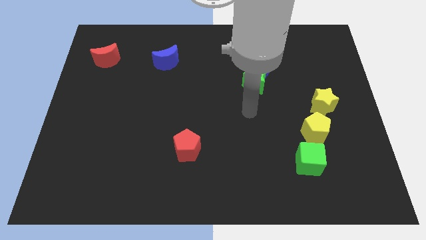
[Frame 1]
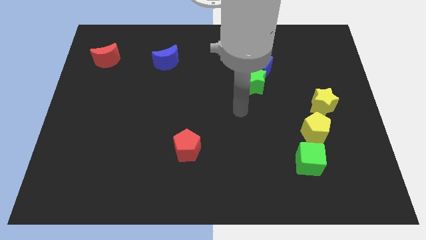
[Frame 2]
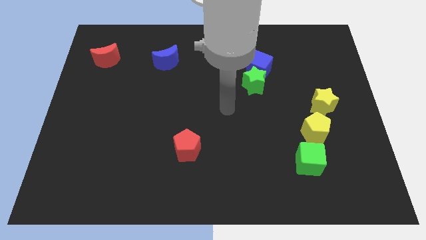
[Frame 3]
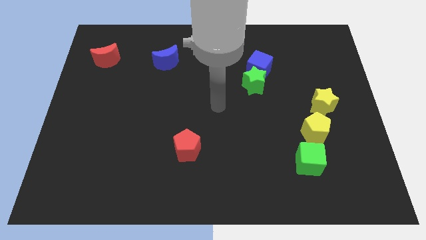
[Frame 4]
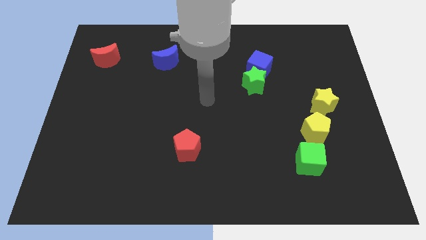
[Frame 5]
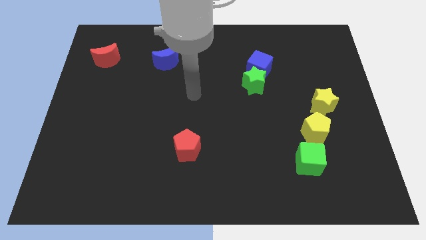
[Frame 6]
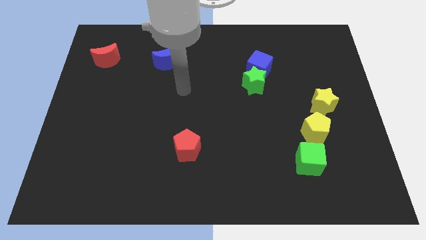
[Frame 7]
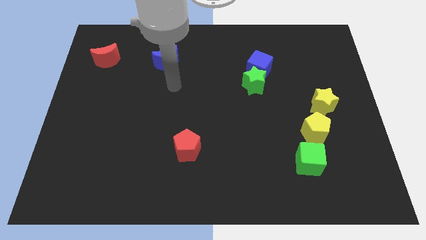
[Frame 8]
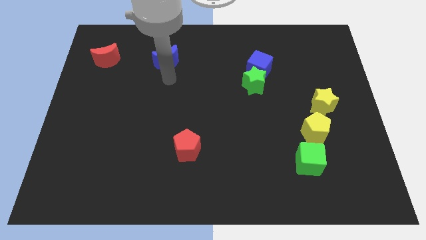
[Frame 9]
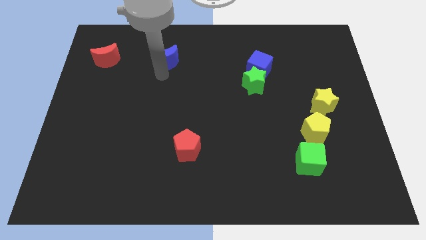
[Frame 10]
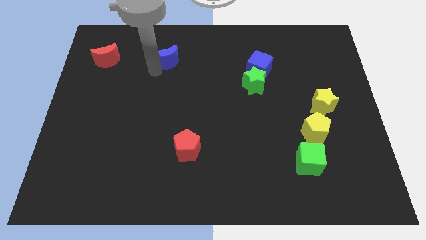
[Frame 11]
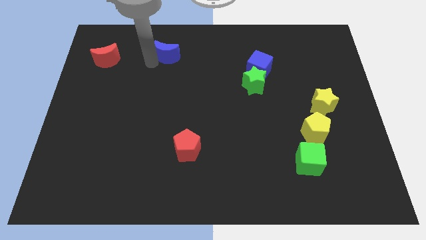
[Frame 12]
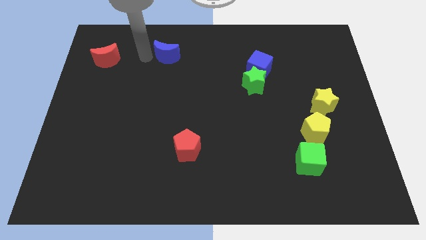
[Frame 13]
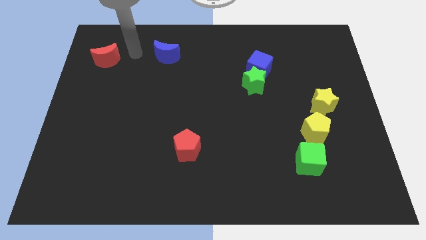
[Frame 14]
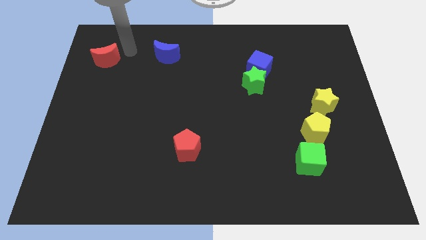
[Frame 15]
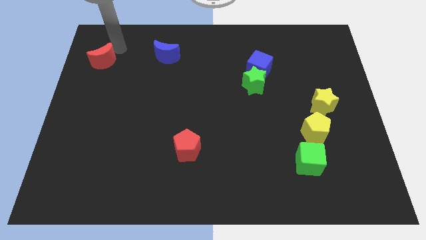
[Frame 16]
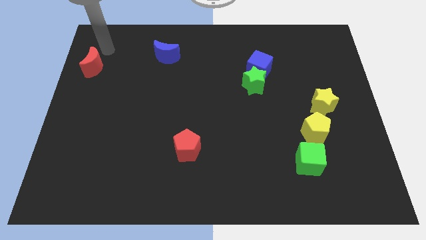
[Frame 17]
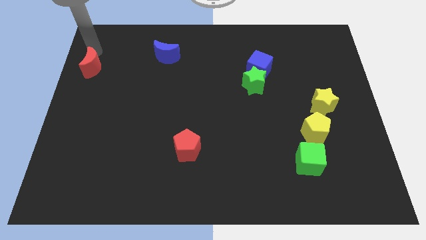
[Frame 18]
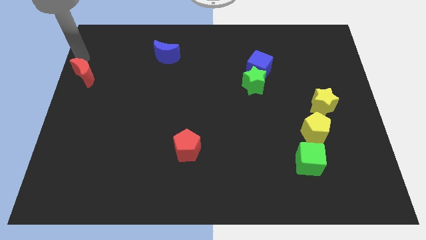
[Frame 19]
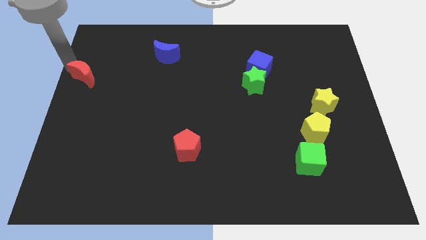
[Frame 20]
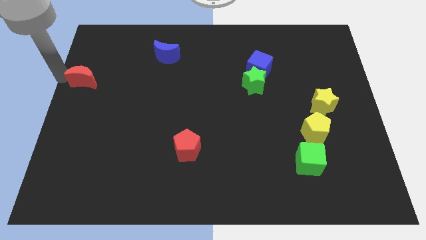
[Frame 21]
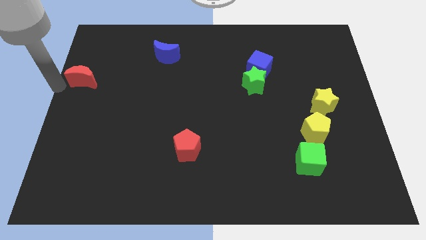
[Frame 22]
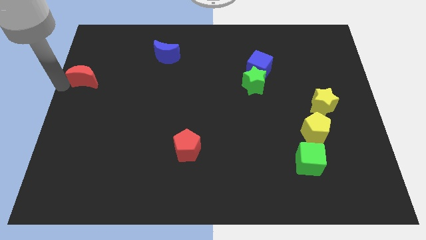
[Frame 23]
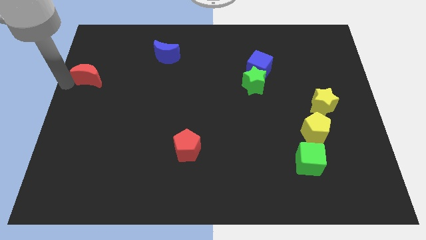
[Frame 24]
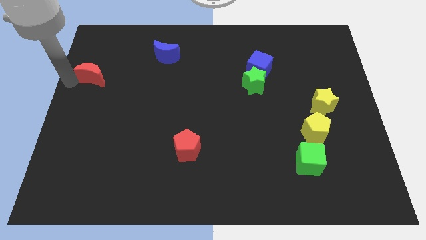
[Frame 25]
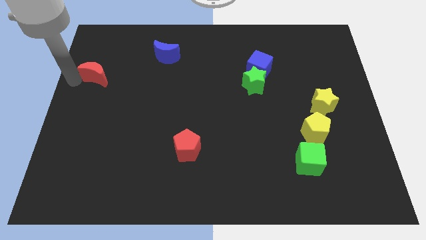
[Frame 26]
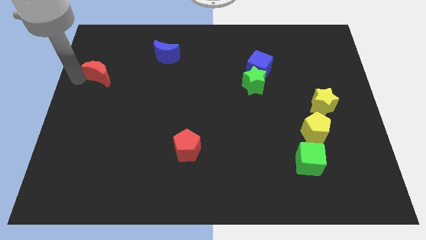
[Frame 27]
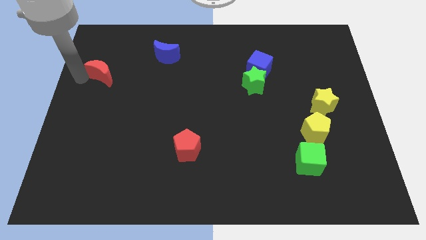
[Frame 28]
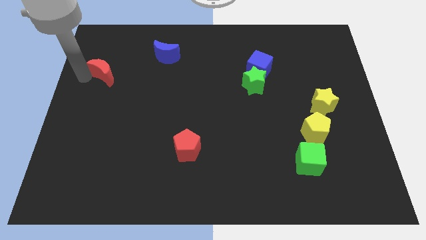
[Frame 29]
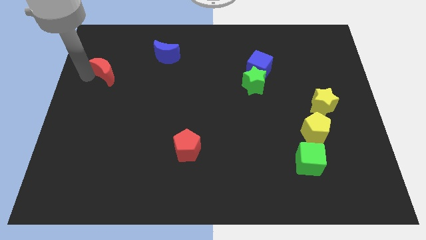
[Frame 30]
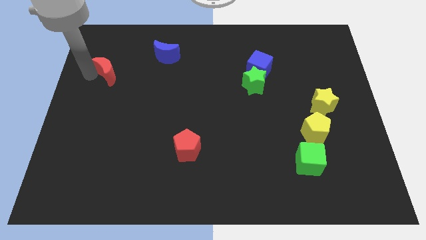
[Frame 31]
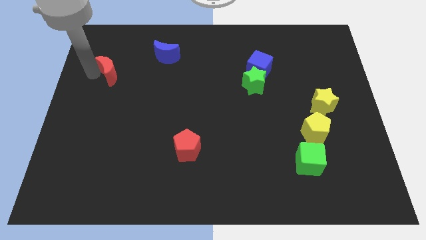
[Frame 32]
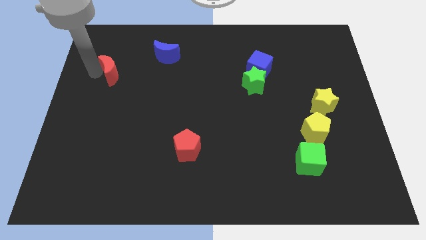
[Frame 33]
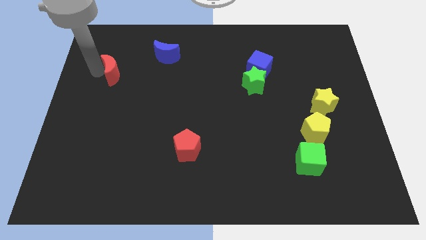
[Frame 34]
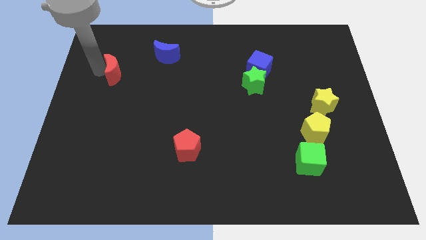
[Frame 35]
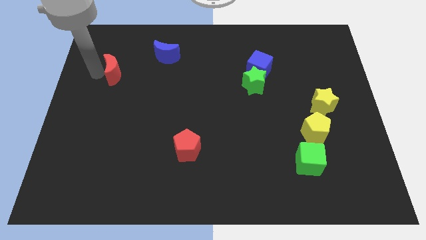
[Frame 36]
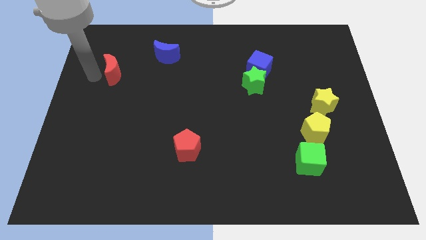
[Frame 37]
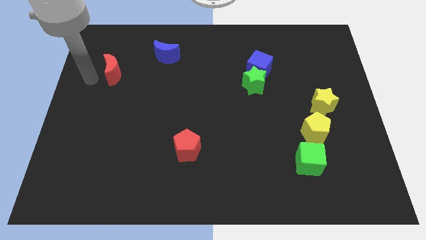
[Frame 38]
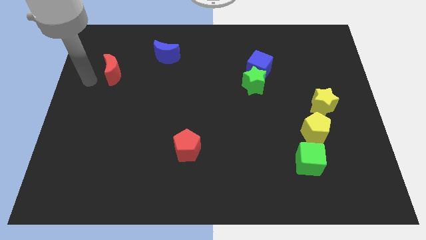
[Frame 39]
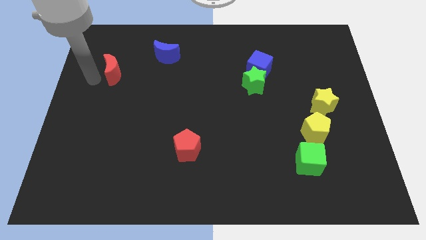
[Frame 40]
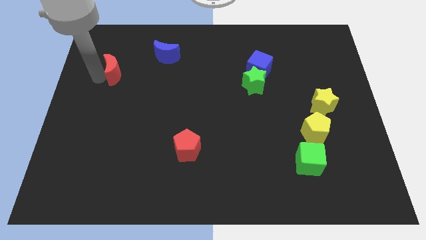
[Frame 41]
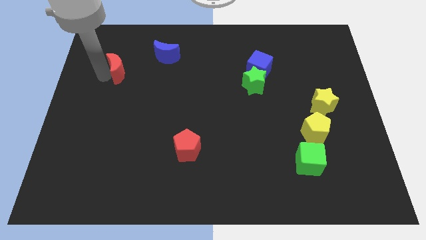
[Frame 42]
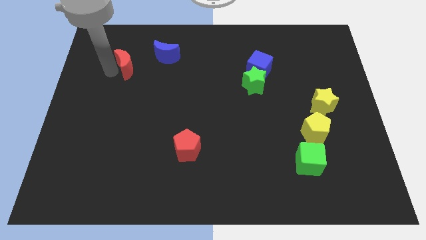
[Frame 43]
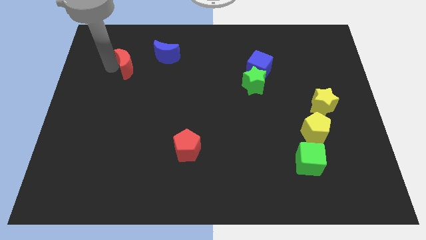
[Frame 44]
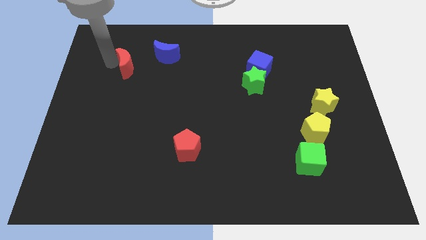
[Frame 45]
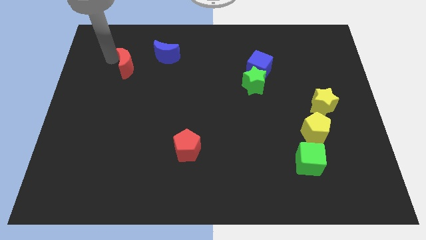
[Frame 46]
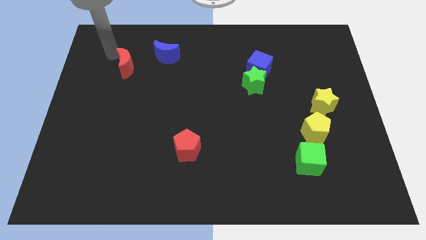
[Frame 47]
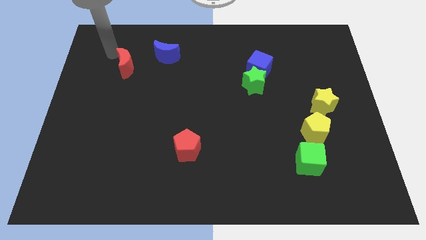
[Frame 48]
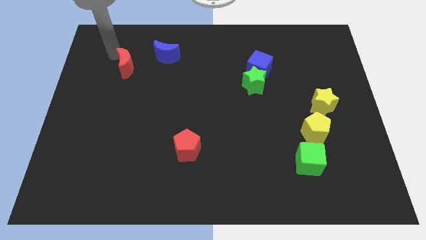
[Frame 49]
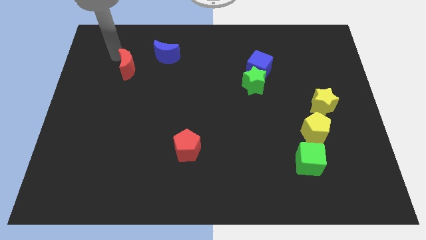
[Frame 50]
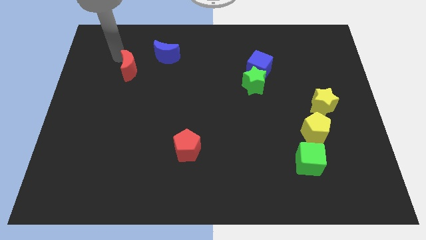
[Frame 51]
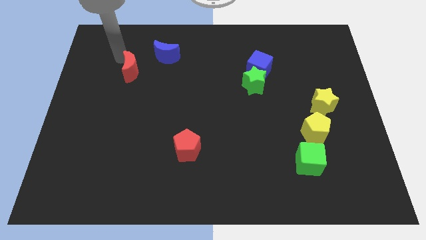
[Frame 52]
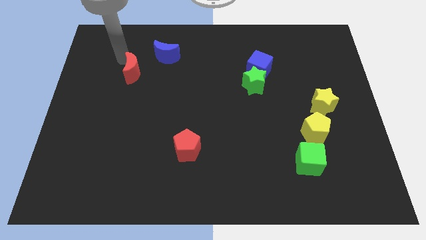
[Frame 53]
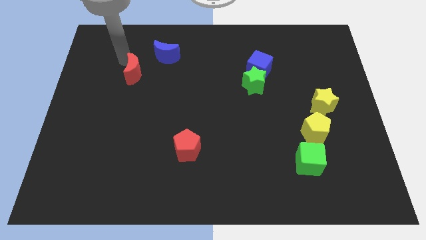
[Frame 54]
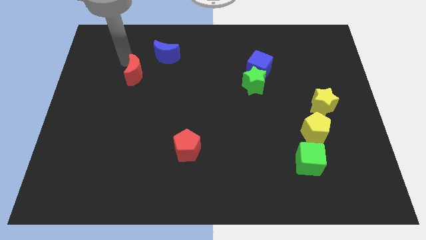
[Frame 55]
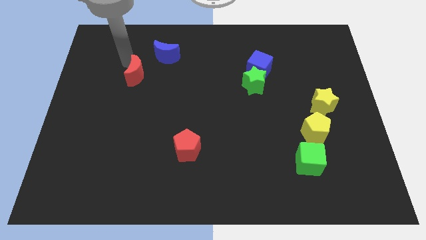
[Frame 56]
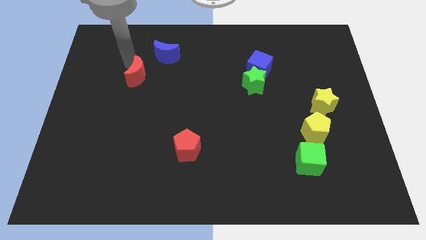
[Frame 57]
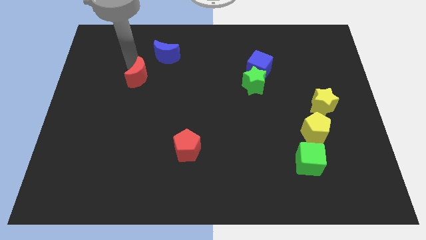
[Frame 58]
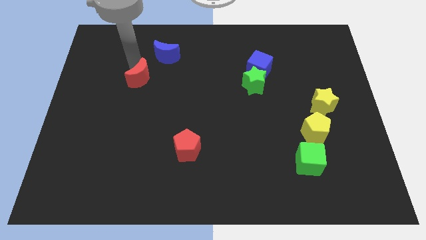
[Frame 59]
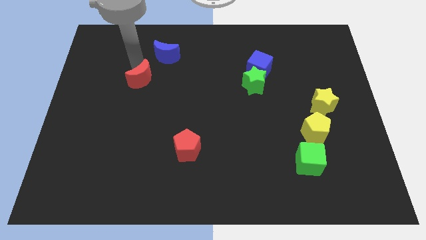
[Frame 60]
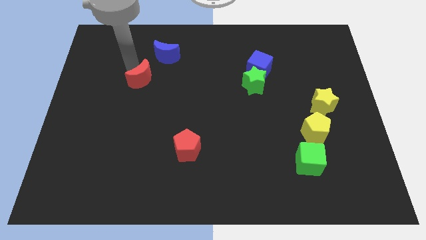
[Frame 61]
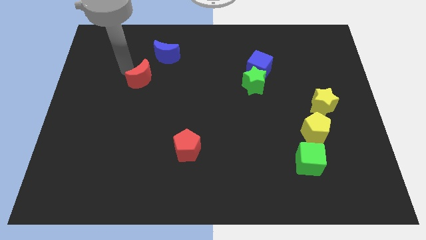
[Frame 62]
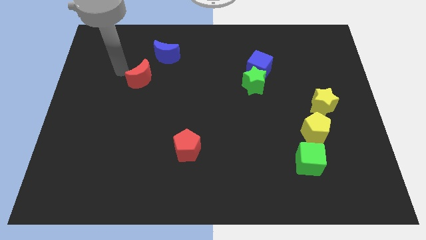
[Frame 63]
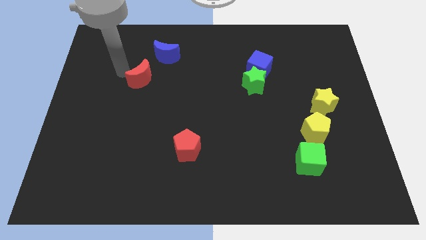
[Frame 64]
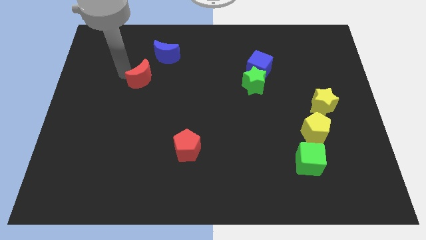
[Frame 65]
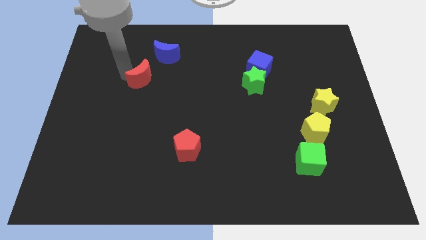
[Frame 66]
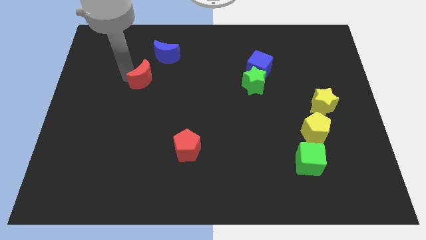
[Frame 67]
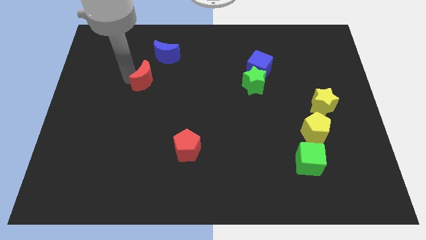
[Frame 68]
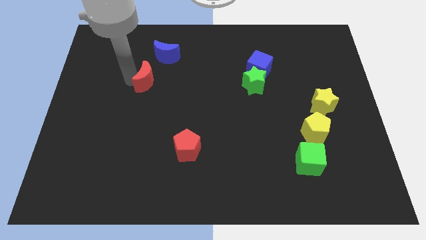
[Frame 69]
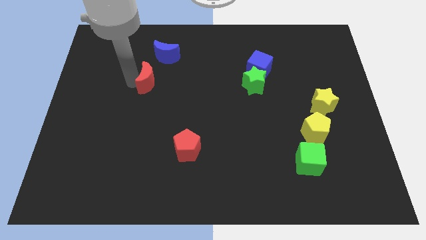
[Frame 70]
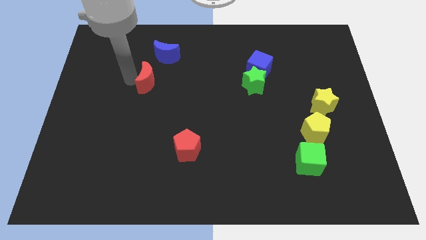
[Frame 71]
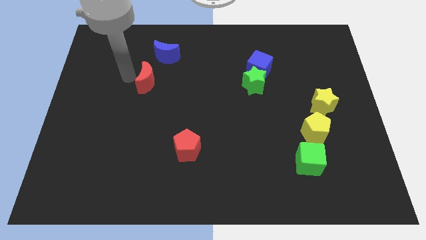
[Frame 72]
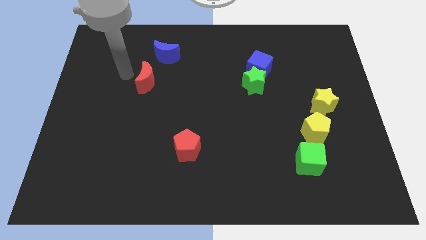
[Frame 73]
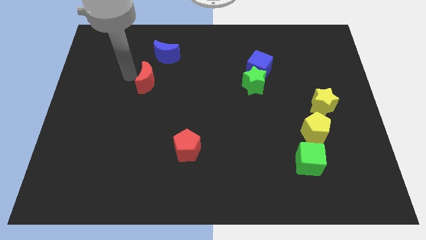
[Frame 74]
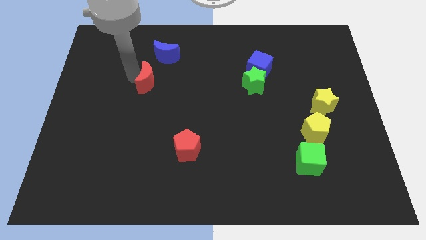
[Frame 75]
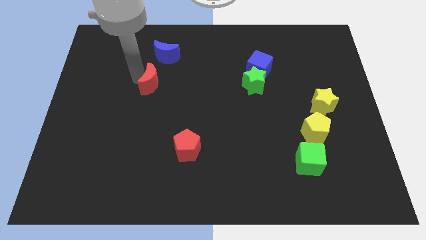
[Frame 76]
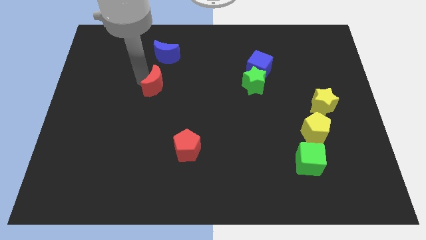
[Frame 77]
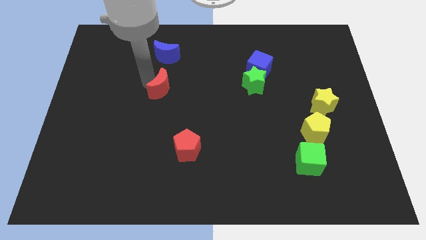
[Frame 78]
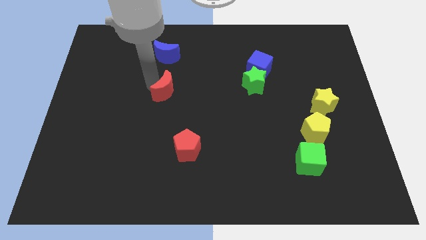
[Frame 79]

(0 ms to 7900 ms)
slide the red moon to the middle of the board
